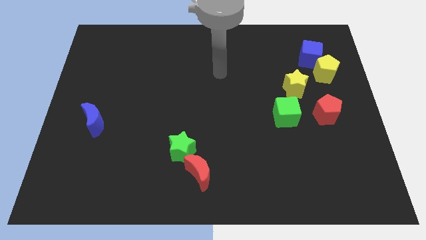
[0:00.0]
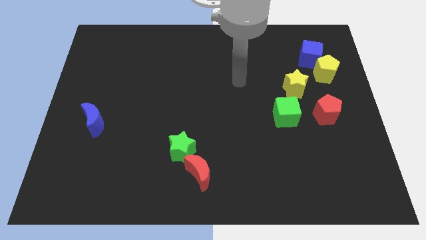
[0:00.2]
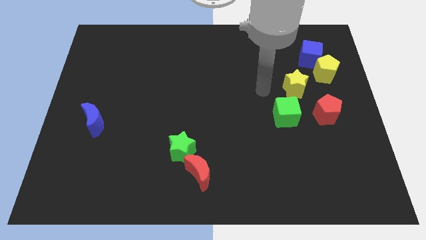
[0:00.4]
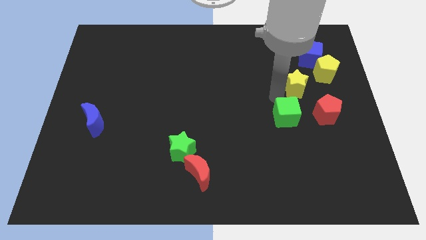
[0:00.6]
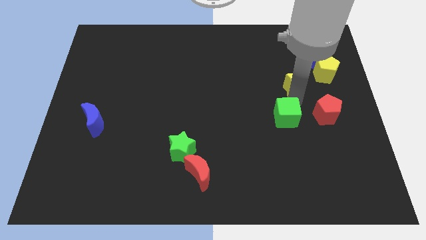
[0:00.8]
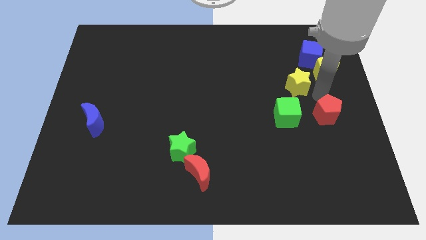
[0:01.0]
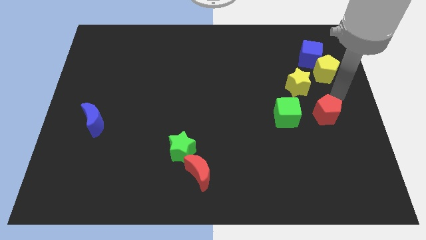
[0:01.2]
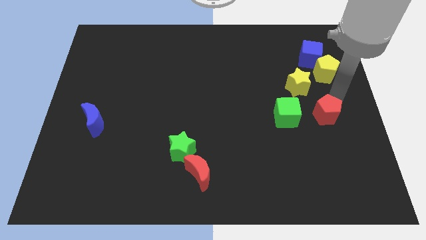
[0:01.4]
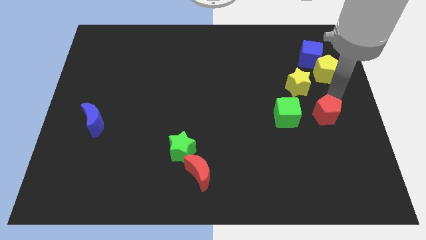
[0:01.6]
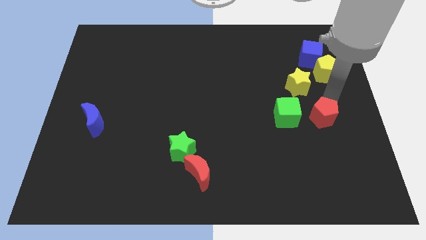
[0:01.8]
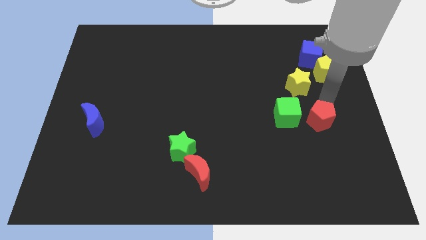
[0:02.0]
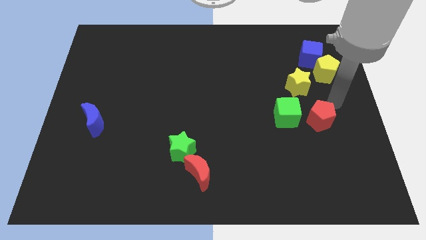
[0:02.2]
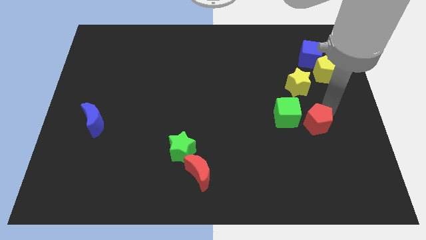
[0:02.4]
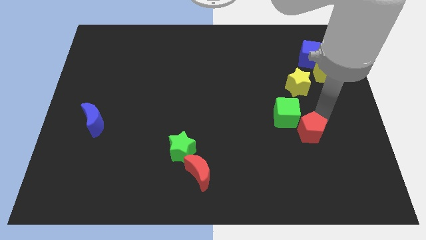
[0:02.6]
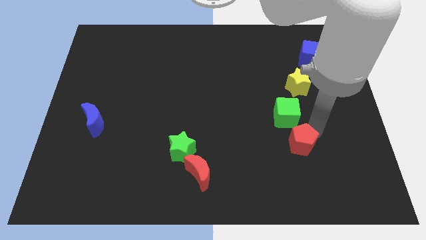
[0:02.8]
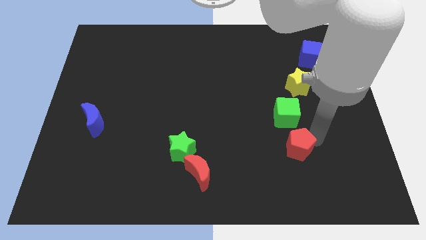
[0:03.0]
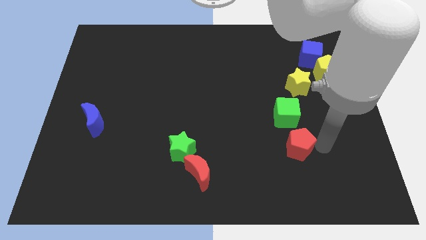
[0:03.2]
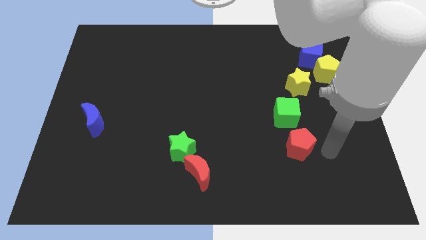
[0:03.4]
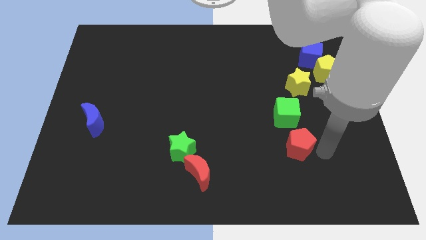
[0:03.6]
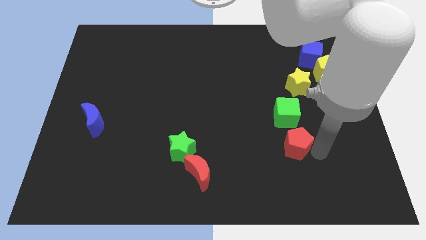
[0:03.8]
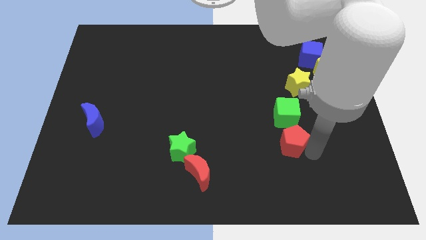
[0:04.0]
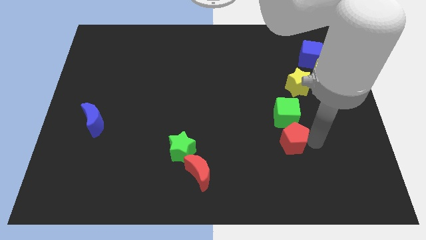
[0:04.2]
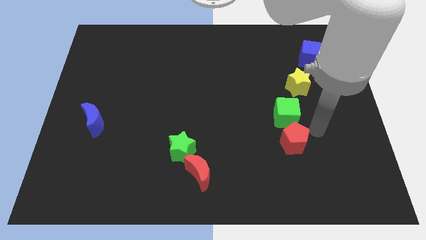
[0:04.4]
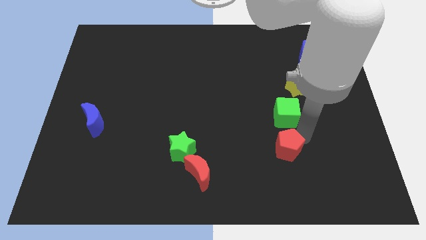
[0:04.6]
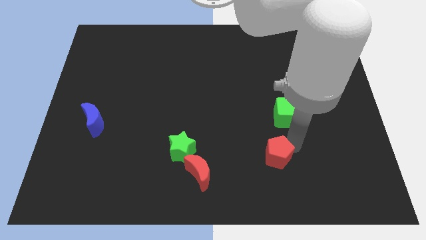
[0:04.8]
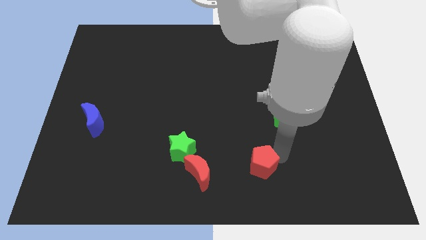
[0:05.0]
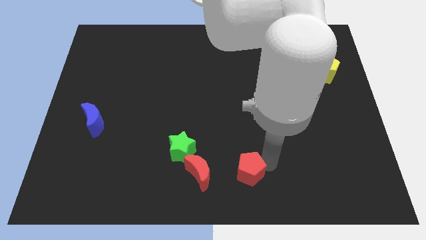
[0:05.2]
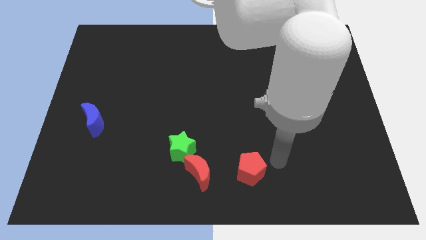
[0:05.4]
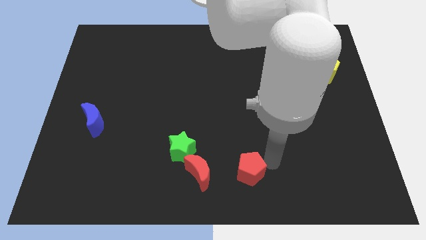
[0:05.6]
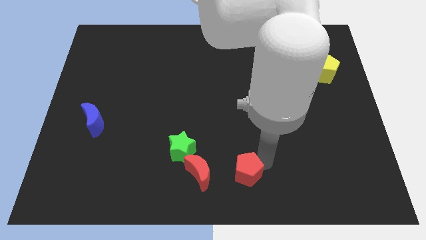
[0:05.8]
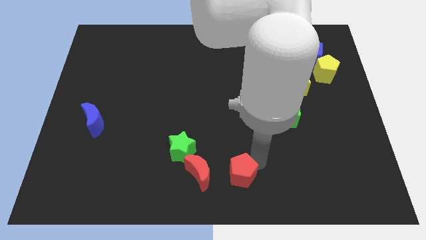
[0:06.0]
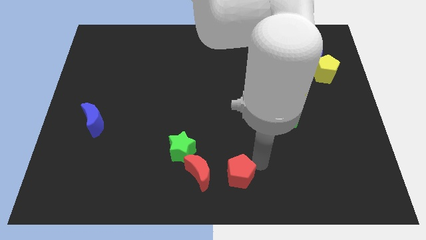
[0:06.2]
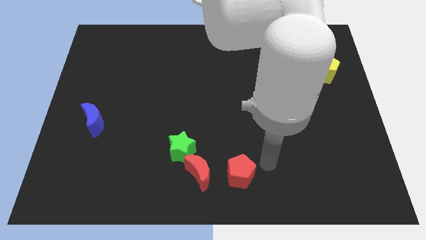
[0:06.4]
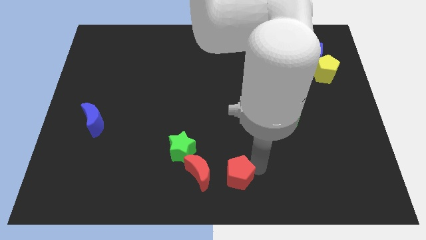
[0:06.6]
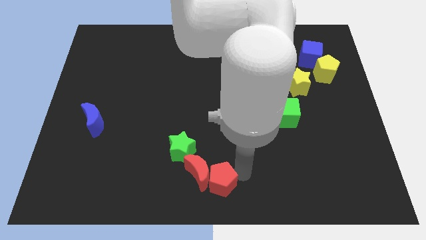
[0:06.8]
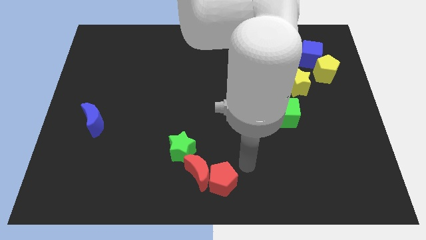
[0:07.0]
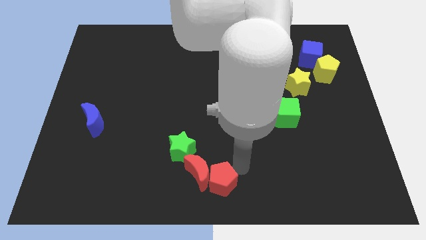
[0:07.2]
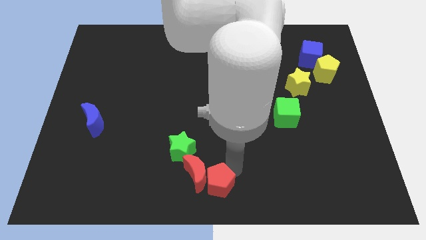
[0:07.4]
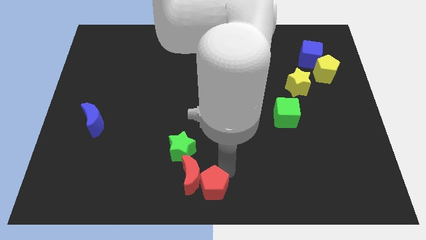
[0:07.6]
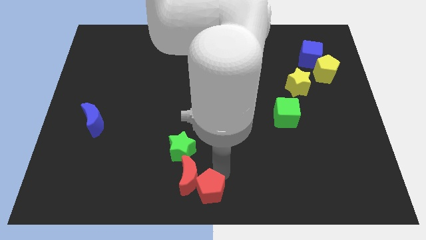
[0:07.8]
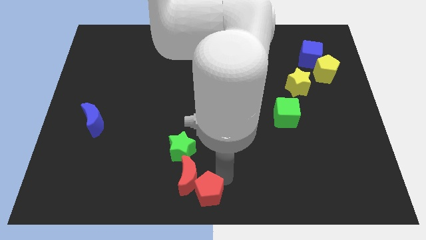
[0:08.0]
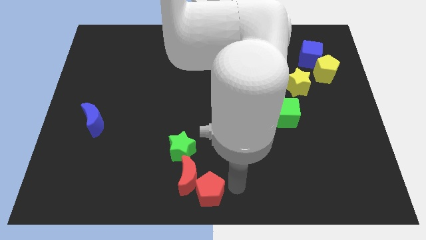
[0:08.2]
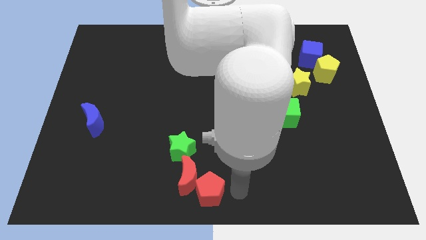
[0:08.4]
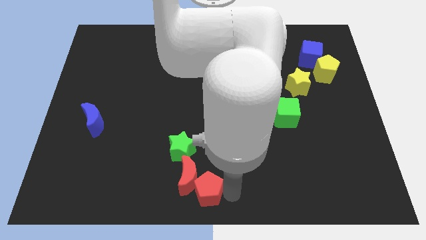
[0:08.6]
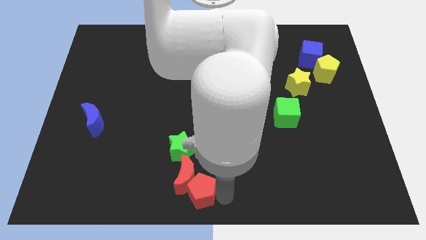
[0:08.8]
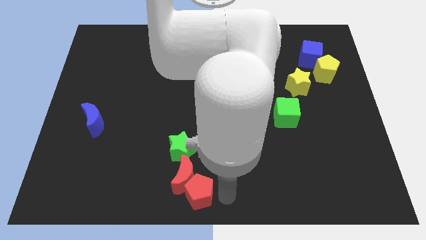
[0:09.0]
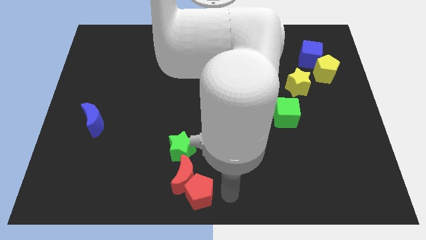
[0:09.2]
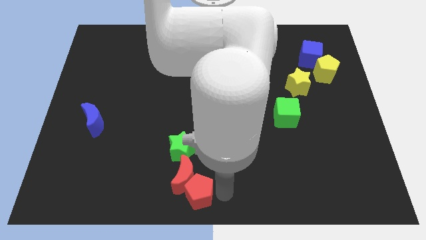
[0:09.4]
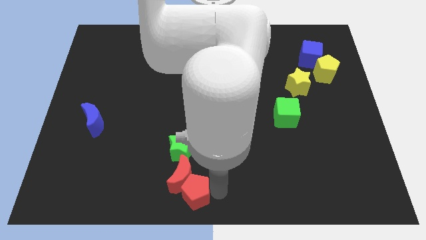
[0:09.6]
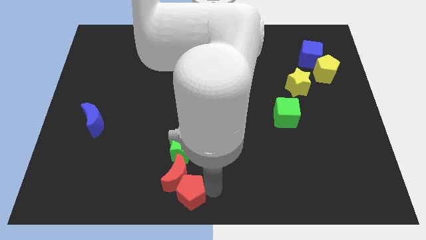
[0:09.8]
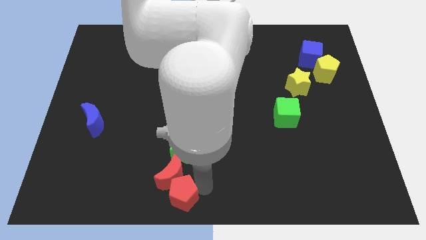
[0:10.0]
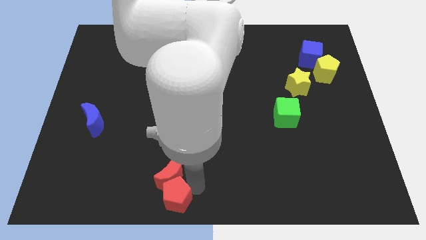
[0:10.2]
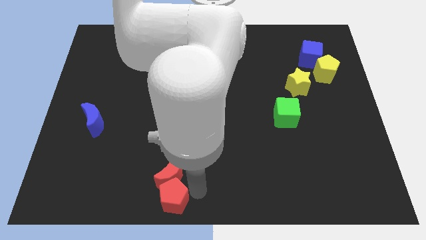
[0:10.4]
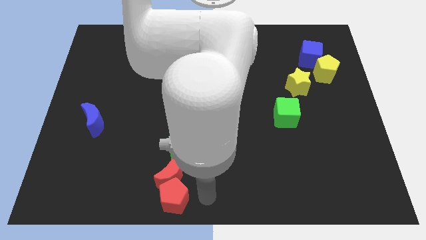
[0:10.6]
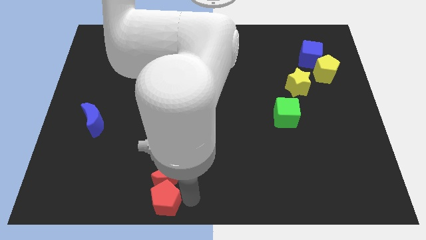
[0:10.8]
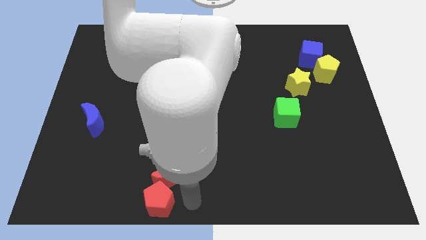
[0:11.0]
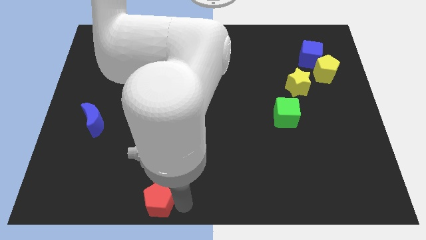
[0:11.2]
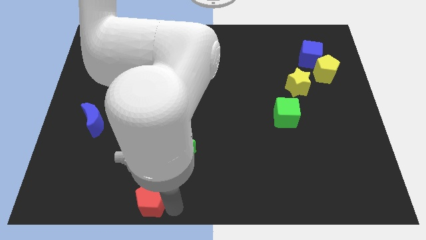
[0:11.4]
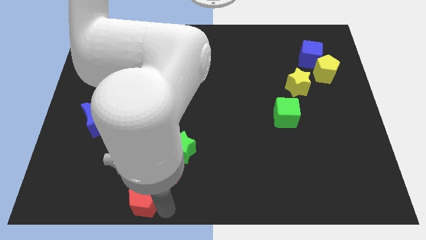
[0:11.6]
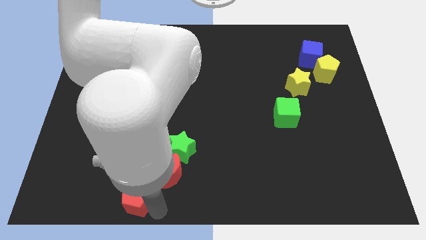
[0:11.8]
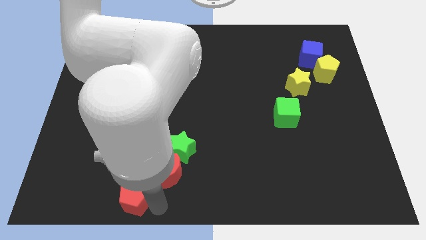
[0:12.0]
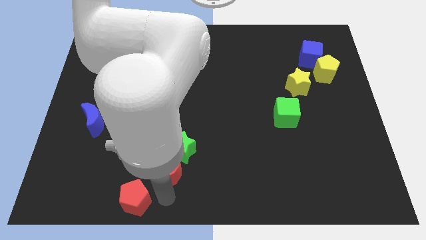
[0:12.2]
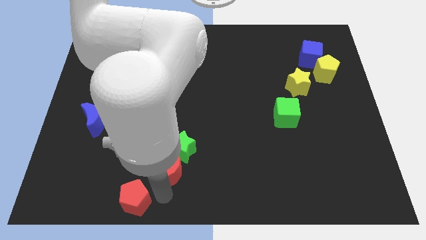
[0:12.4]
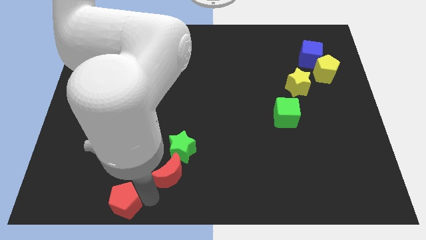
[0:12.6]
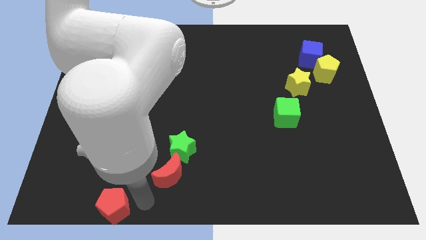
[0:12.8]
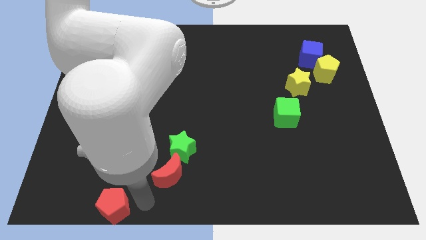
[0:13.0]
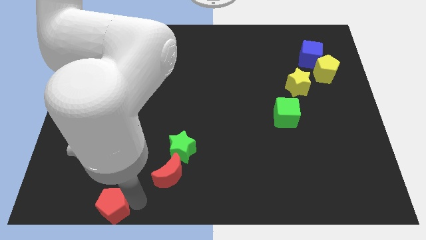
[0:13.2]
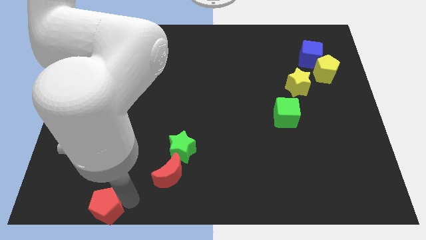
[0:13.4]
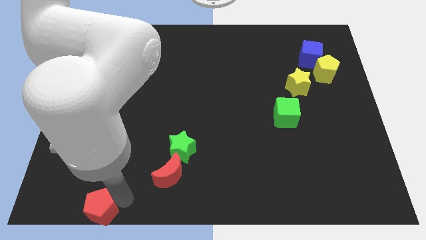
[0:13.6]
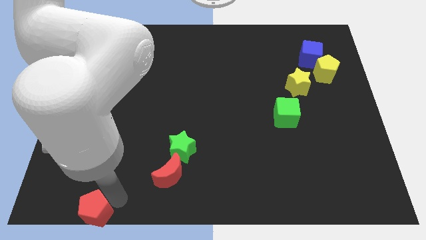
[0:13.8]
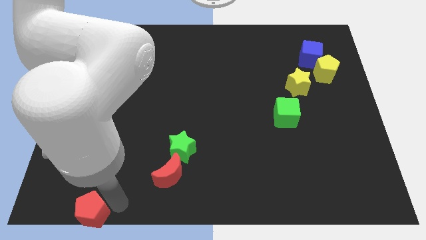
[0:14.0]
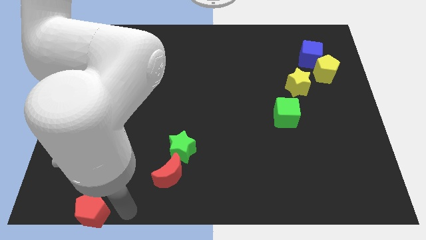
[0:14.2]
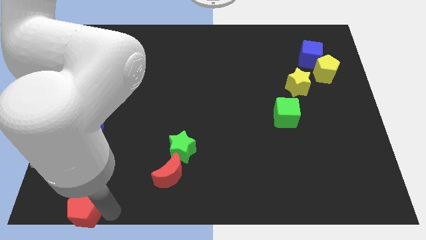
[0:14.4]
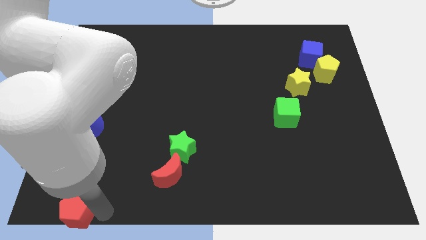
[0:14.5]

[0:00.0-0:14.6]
move the red pentagon to the bottom left of the board
